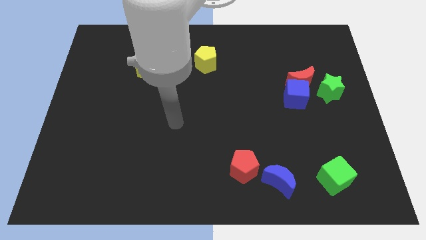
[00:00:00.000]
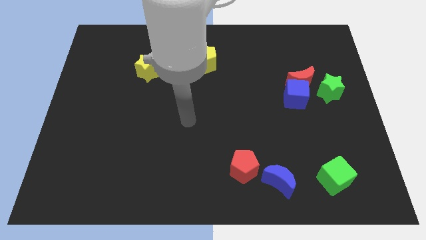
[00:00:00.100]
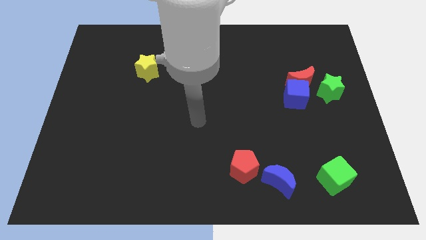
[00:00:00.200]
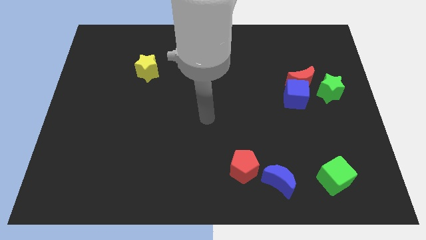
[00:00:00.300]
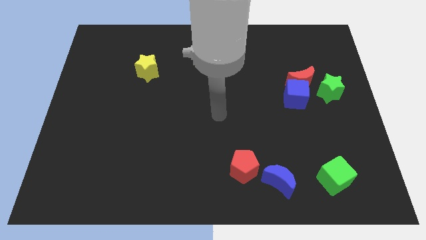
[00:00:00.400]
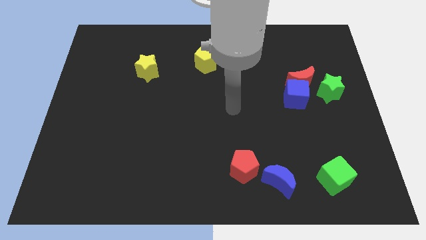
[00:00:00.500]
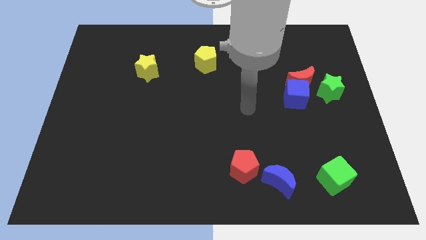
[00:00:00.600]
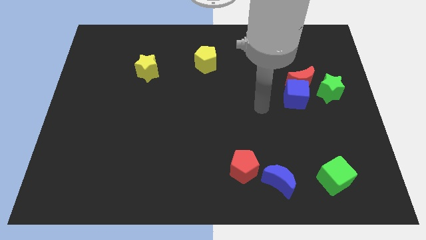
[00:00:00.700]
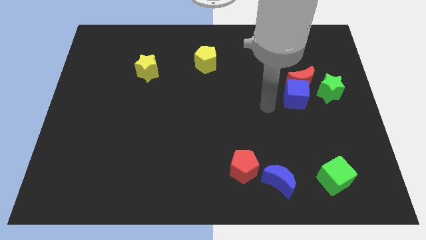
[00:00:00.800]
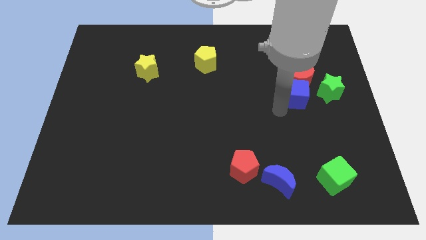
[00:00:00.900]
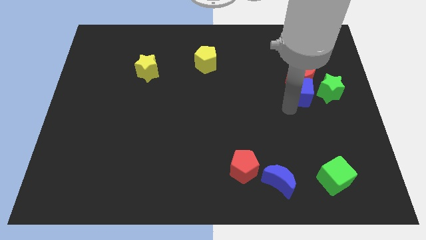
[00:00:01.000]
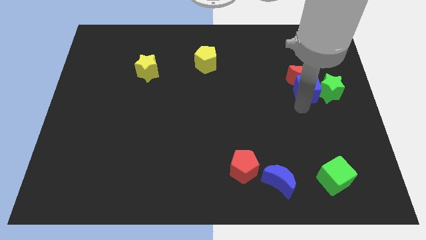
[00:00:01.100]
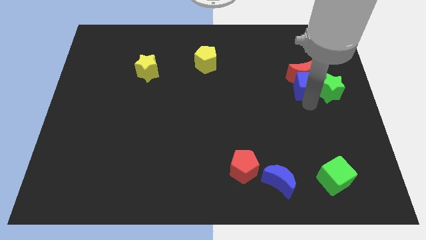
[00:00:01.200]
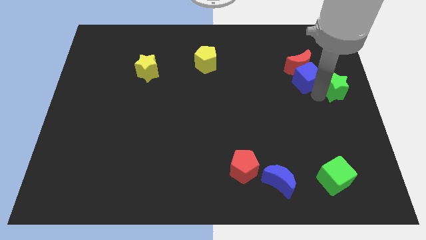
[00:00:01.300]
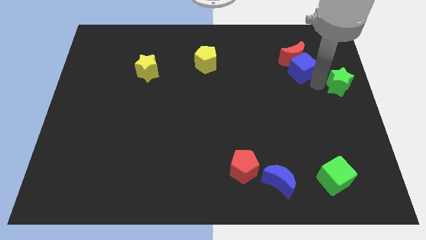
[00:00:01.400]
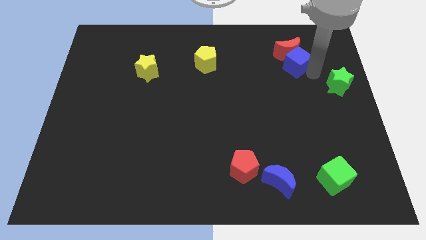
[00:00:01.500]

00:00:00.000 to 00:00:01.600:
move the red moon away from the blue cube and green star

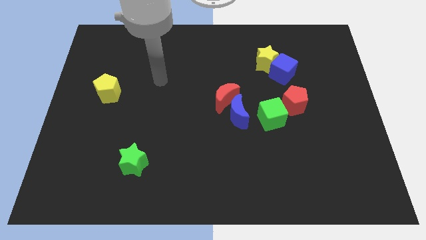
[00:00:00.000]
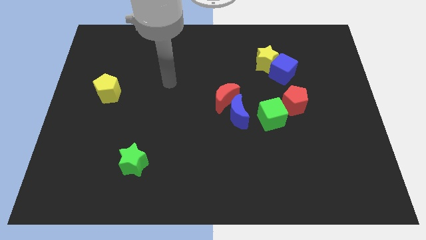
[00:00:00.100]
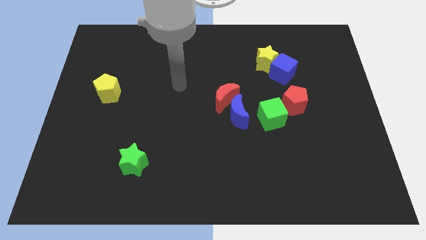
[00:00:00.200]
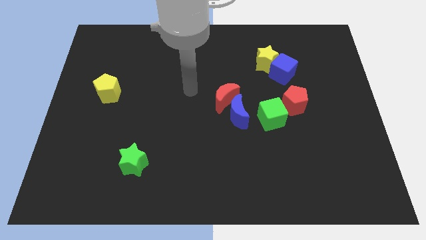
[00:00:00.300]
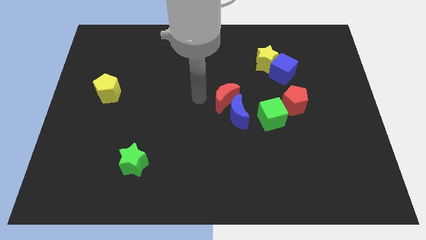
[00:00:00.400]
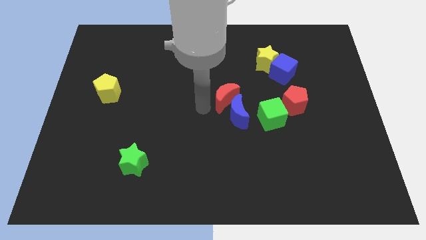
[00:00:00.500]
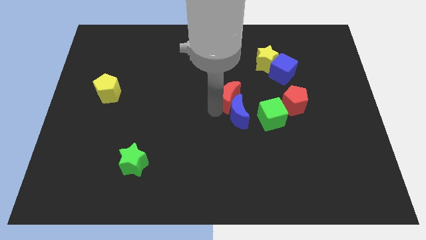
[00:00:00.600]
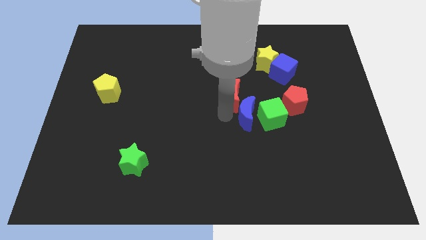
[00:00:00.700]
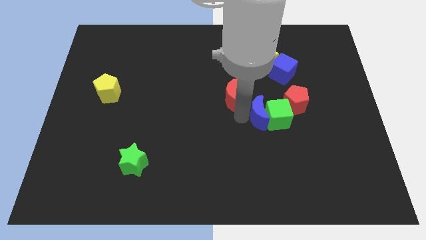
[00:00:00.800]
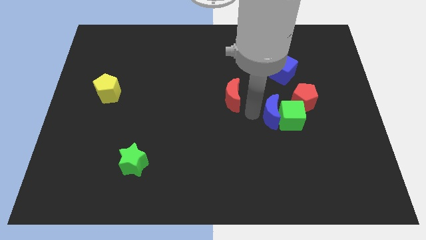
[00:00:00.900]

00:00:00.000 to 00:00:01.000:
pull the red moon apart from the blue moon

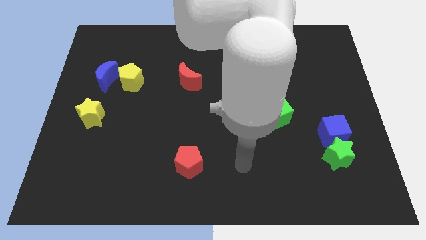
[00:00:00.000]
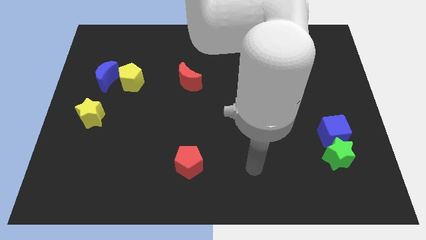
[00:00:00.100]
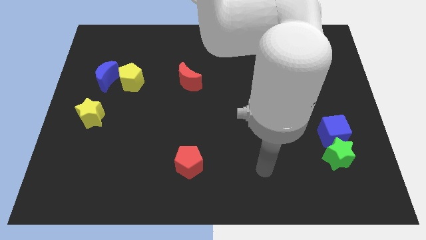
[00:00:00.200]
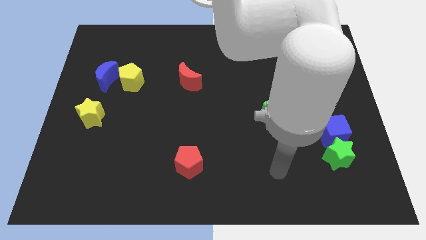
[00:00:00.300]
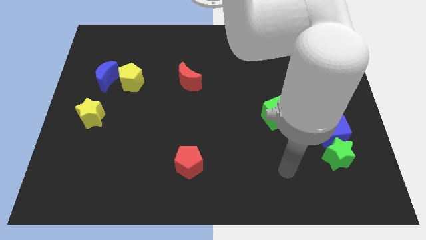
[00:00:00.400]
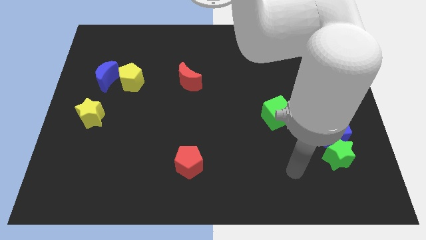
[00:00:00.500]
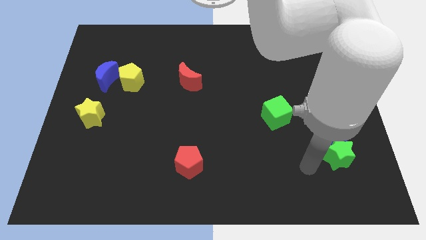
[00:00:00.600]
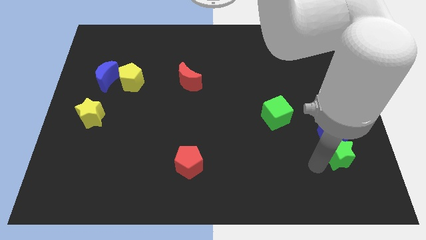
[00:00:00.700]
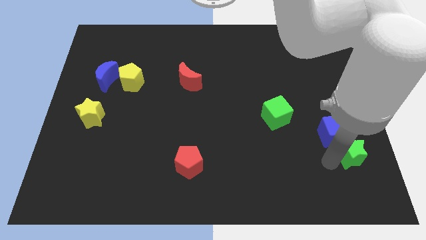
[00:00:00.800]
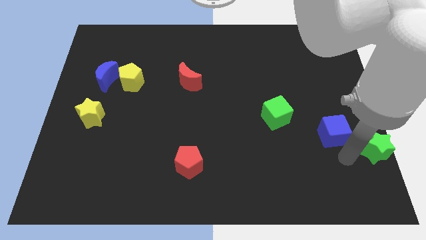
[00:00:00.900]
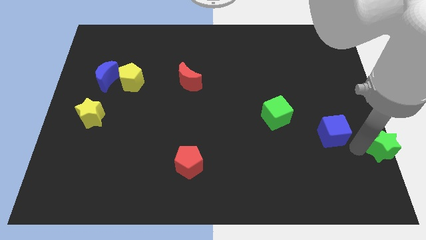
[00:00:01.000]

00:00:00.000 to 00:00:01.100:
move the blue cube away from the green star

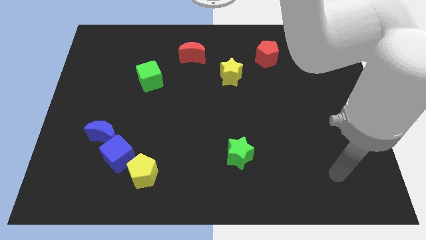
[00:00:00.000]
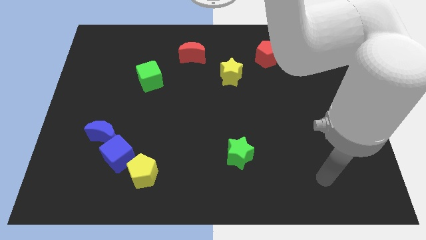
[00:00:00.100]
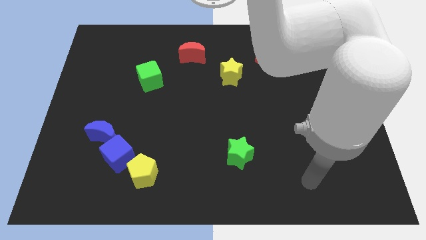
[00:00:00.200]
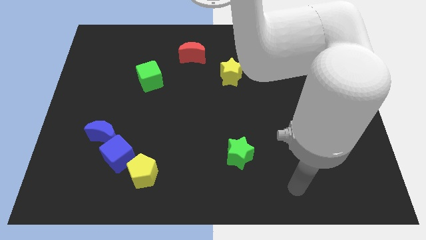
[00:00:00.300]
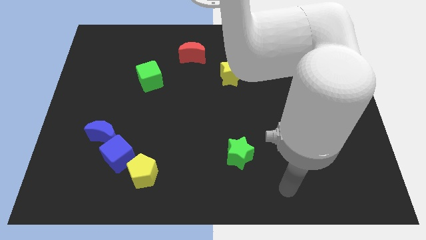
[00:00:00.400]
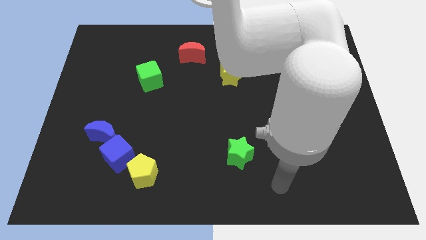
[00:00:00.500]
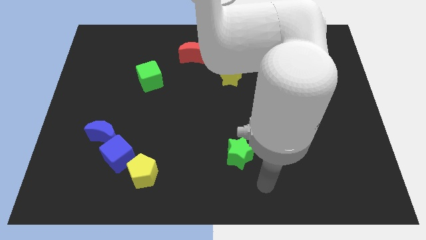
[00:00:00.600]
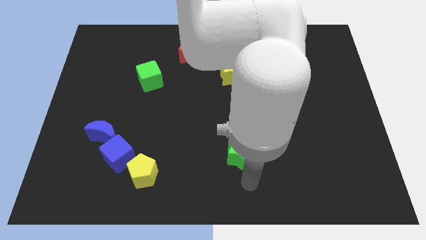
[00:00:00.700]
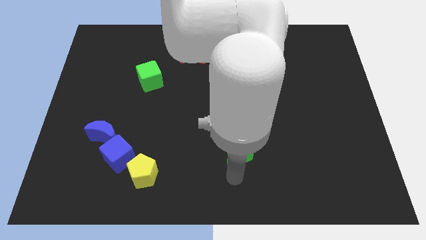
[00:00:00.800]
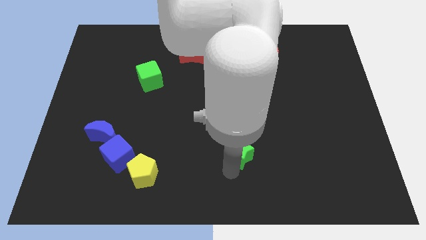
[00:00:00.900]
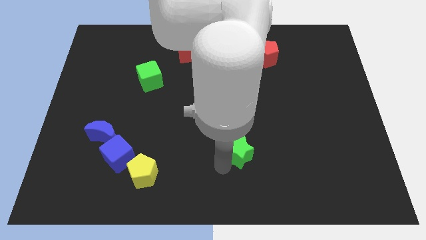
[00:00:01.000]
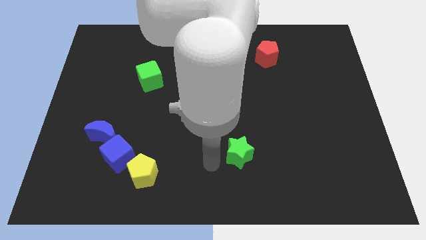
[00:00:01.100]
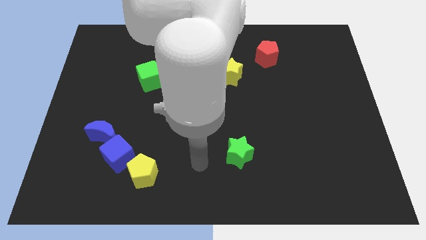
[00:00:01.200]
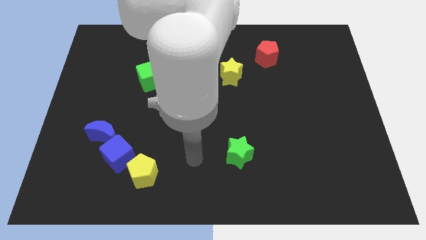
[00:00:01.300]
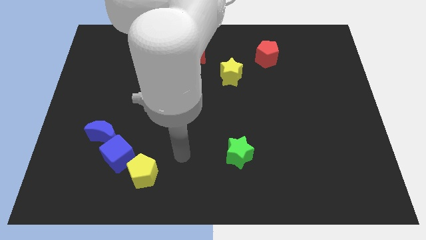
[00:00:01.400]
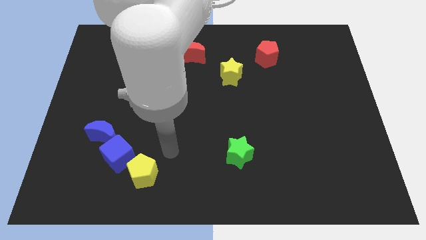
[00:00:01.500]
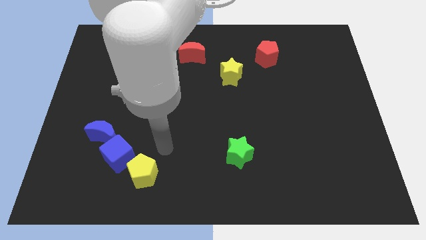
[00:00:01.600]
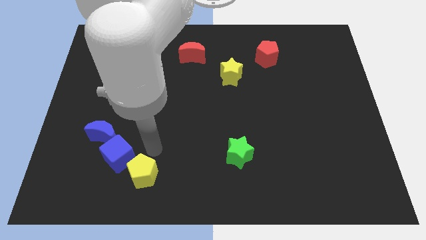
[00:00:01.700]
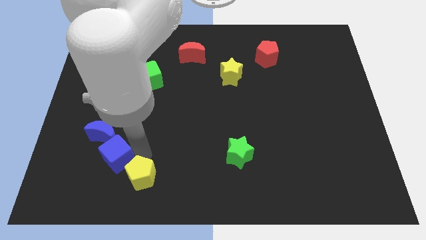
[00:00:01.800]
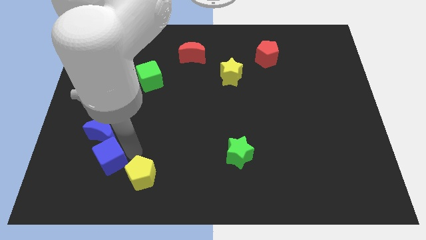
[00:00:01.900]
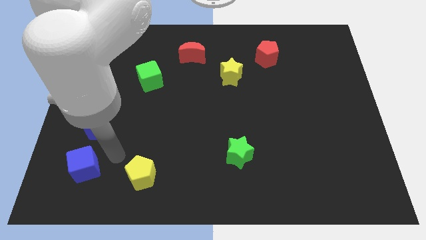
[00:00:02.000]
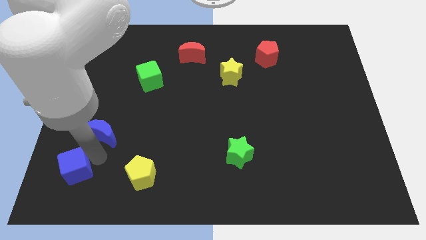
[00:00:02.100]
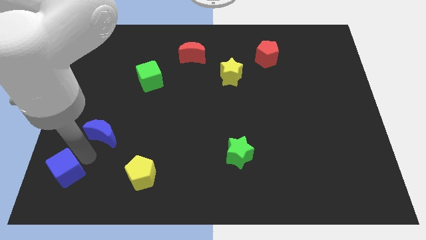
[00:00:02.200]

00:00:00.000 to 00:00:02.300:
separate the blue moon from the blue cube

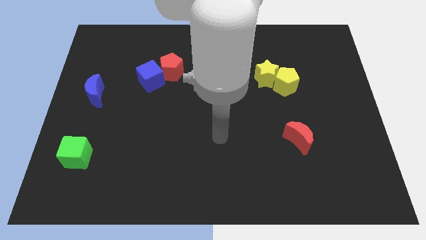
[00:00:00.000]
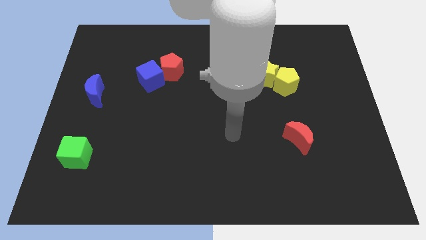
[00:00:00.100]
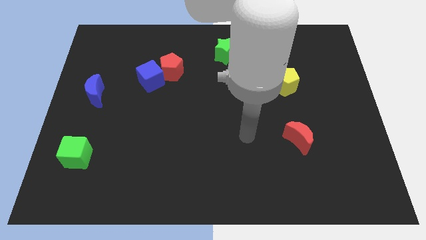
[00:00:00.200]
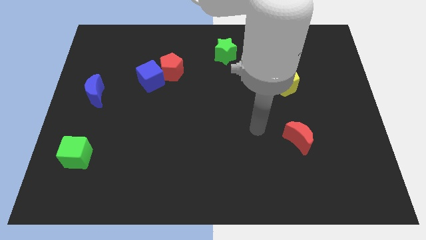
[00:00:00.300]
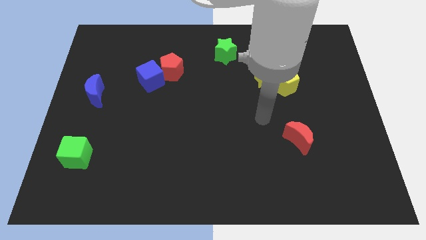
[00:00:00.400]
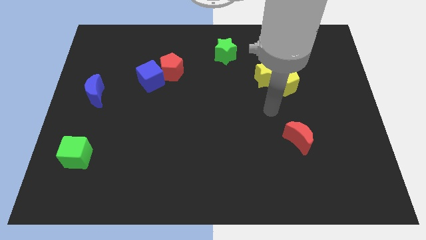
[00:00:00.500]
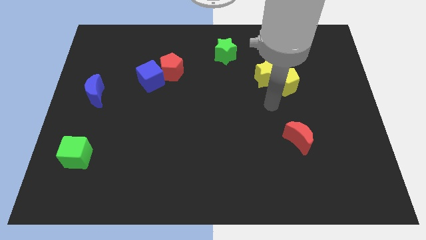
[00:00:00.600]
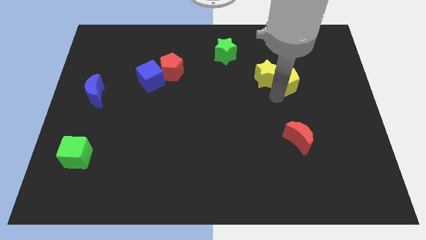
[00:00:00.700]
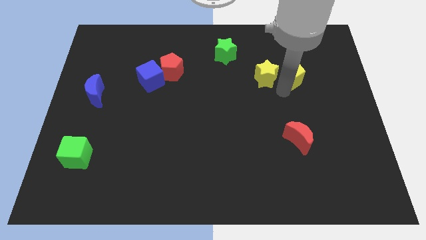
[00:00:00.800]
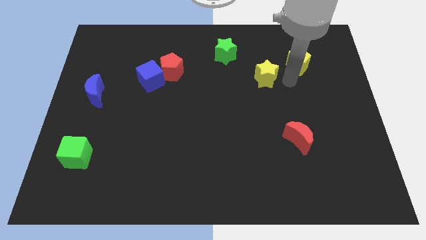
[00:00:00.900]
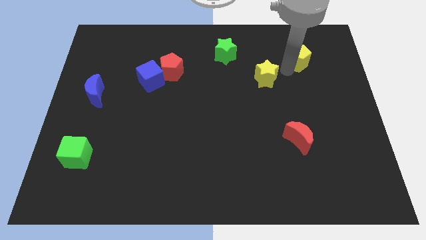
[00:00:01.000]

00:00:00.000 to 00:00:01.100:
move the yellow star away from the yellow pentagon

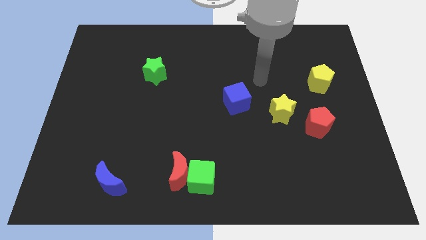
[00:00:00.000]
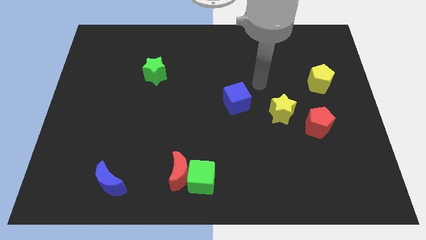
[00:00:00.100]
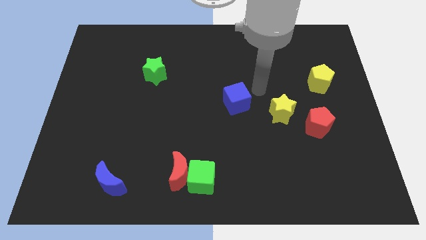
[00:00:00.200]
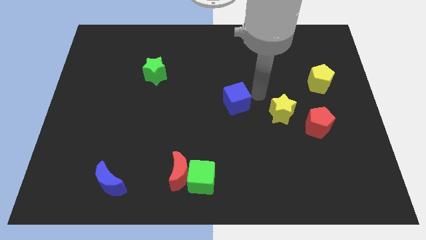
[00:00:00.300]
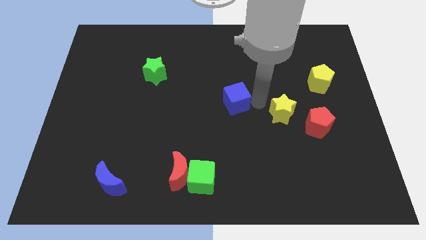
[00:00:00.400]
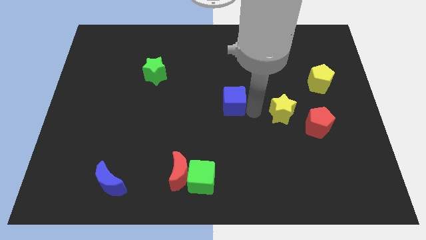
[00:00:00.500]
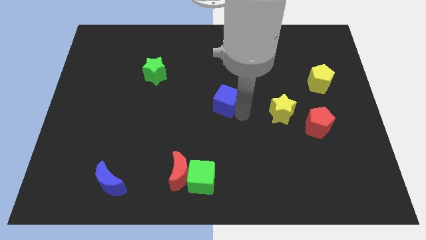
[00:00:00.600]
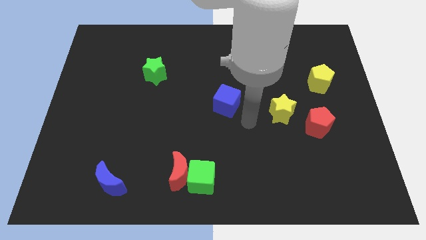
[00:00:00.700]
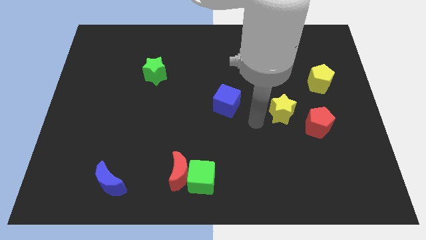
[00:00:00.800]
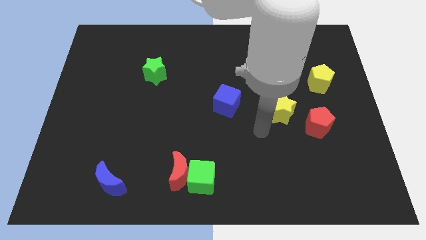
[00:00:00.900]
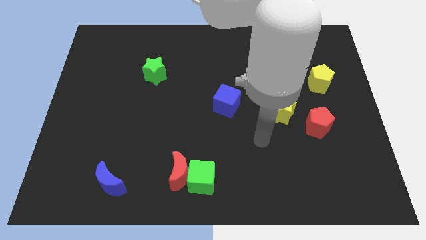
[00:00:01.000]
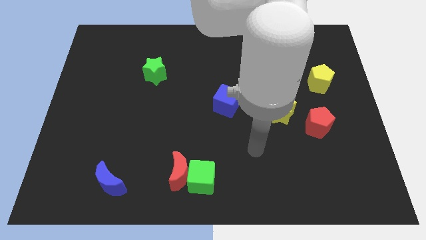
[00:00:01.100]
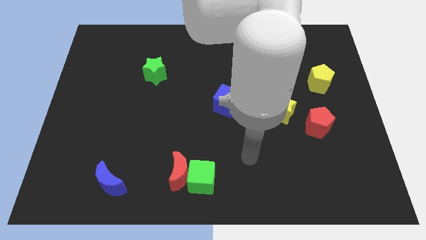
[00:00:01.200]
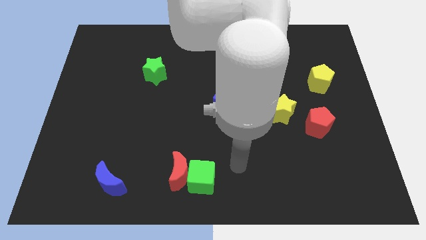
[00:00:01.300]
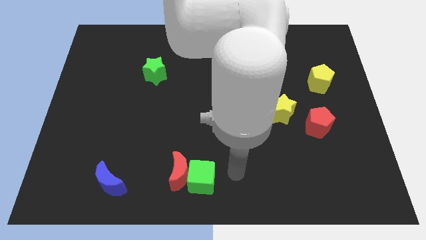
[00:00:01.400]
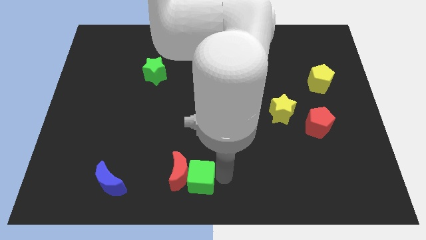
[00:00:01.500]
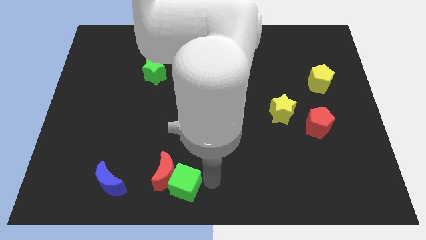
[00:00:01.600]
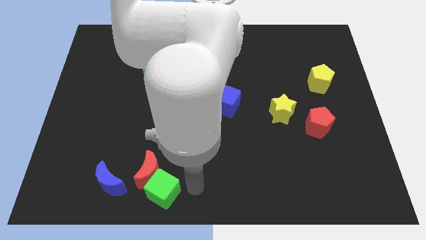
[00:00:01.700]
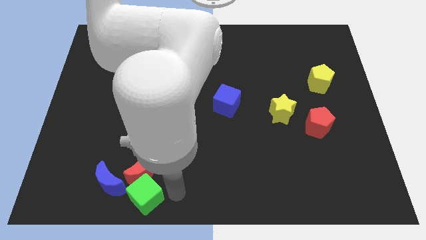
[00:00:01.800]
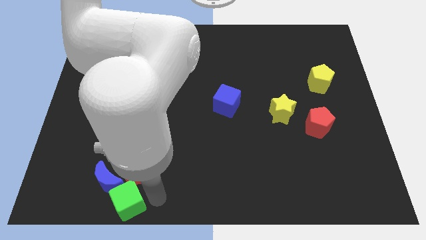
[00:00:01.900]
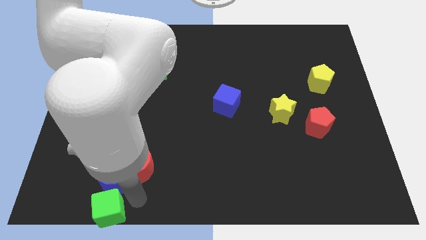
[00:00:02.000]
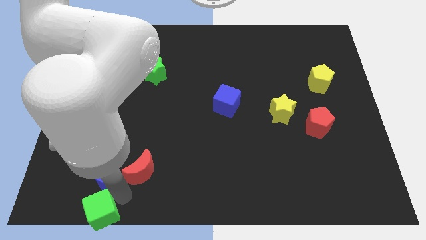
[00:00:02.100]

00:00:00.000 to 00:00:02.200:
pull the red moon apart from the green cube
